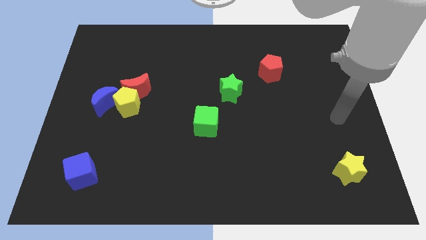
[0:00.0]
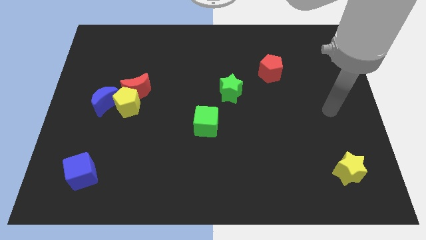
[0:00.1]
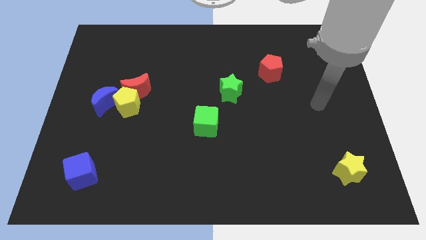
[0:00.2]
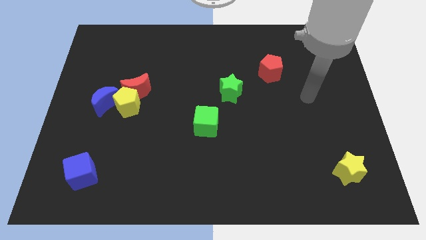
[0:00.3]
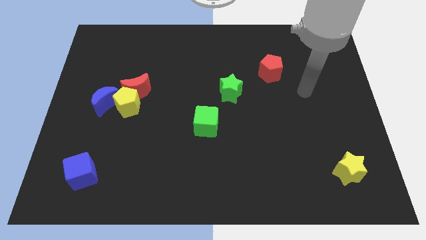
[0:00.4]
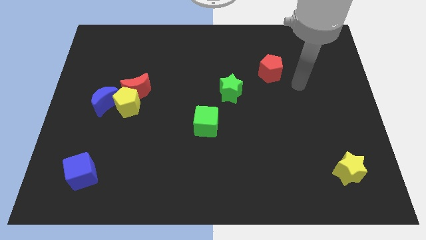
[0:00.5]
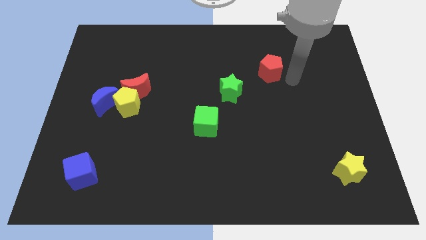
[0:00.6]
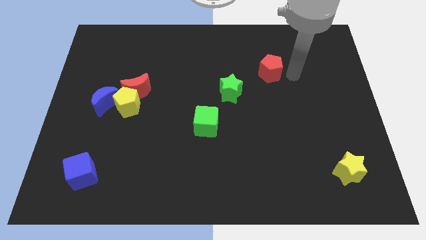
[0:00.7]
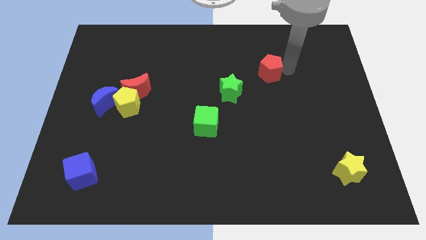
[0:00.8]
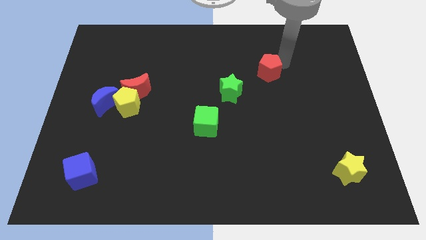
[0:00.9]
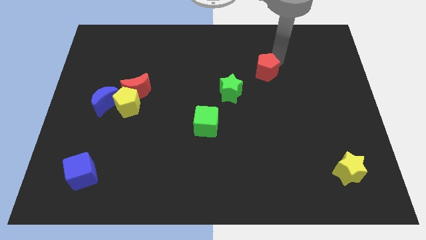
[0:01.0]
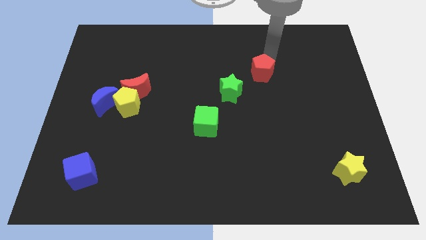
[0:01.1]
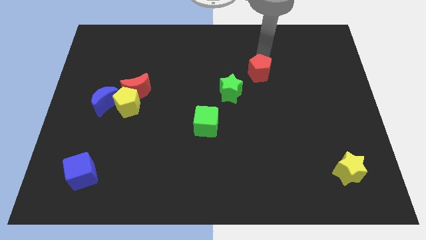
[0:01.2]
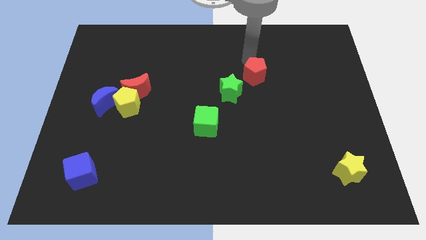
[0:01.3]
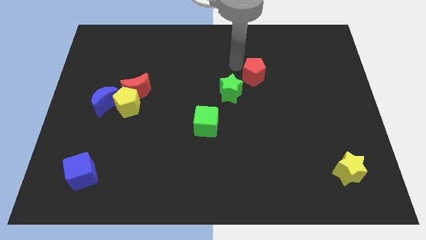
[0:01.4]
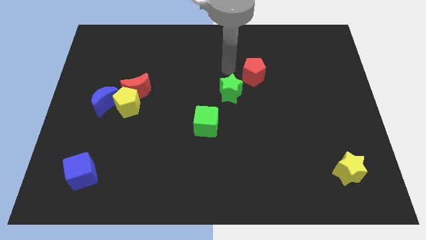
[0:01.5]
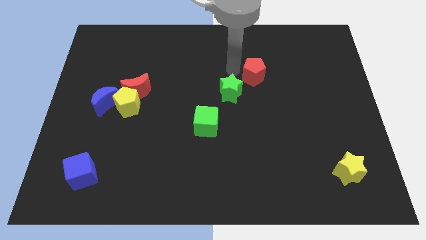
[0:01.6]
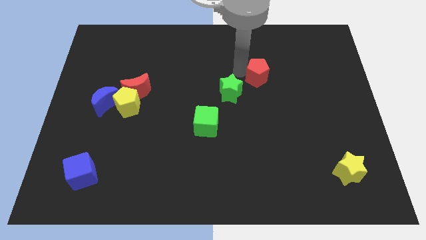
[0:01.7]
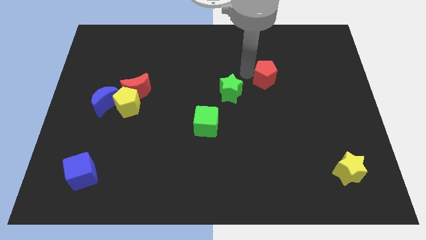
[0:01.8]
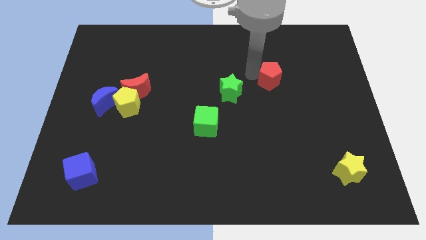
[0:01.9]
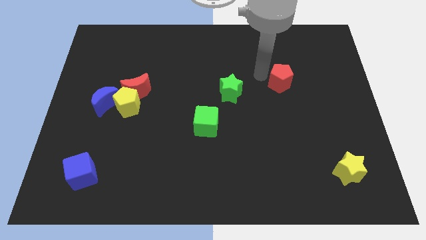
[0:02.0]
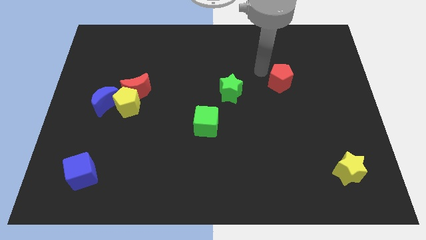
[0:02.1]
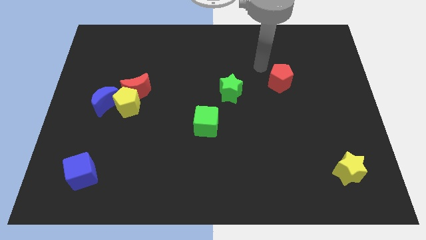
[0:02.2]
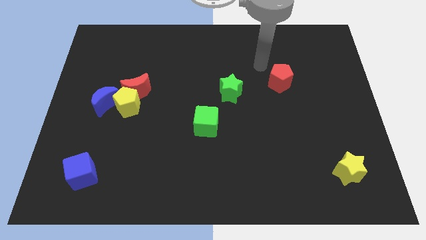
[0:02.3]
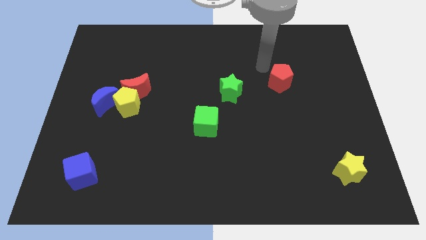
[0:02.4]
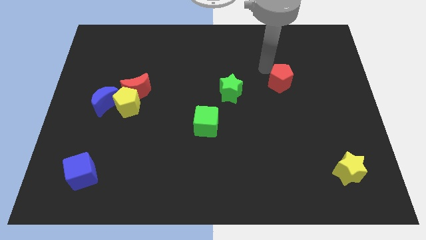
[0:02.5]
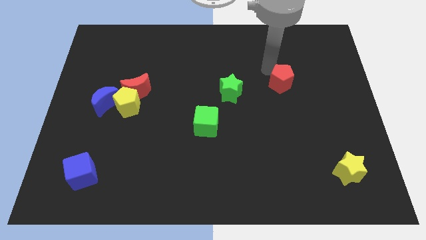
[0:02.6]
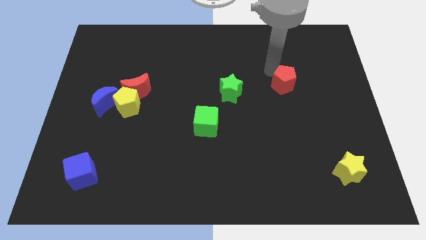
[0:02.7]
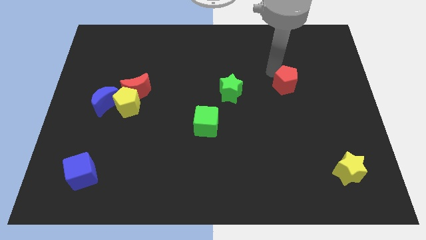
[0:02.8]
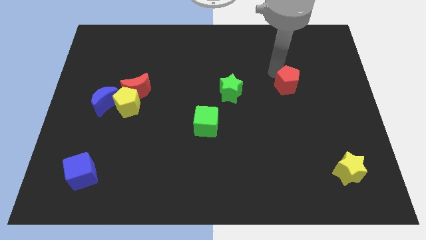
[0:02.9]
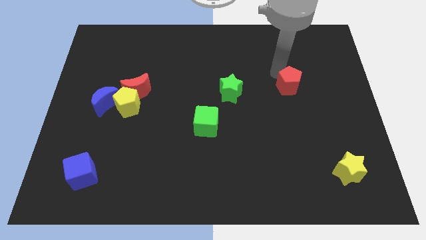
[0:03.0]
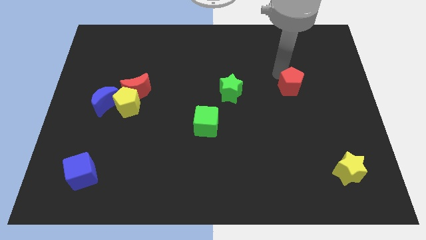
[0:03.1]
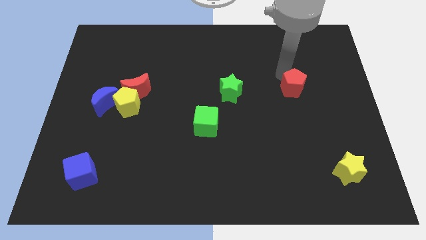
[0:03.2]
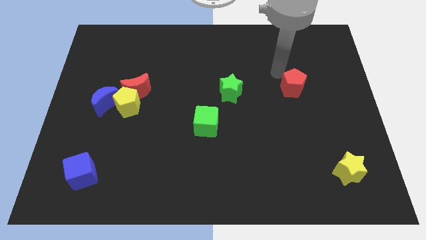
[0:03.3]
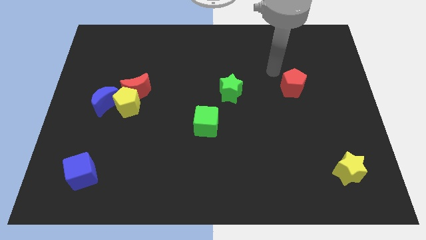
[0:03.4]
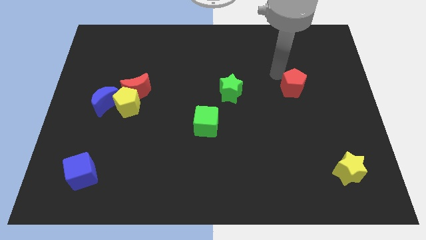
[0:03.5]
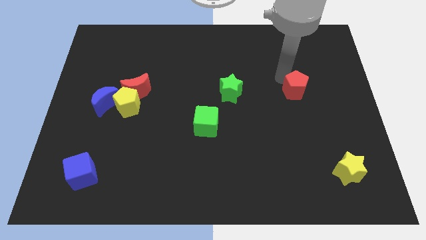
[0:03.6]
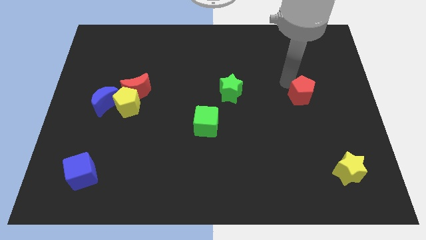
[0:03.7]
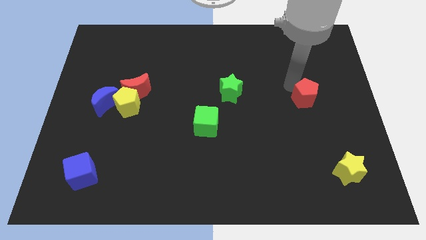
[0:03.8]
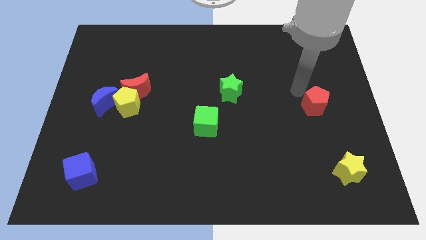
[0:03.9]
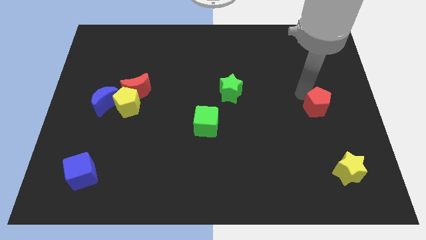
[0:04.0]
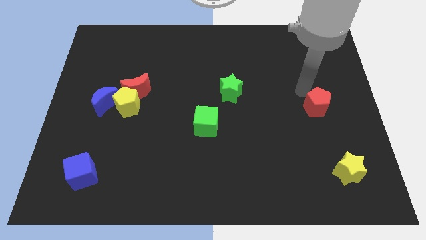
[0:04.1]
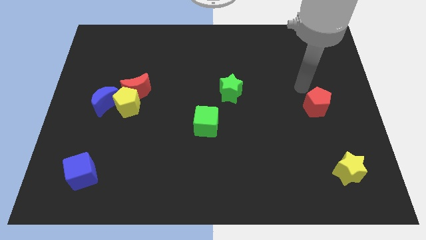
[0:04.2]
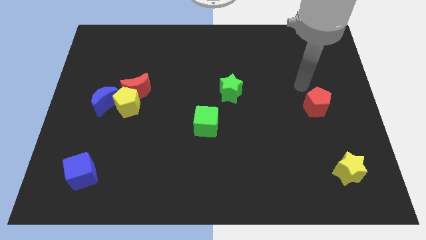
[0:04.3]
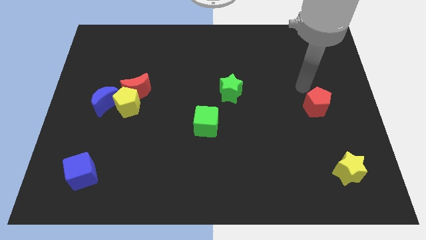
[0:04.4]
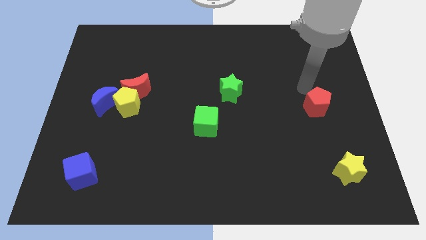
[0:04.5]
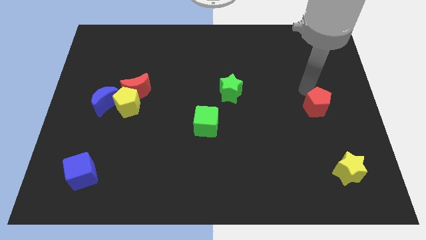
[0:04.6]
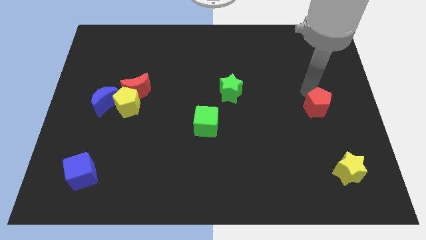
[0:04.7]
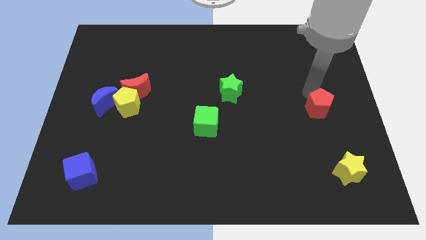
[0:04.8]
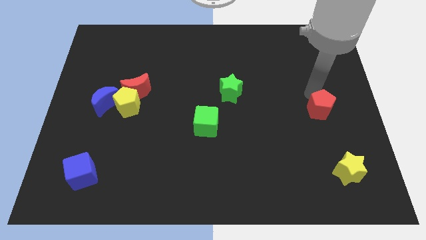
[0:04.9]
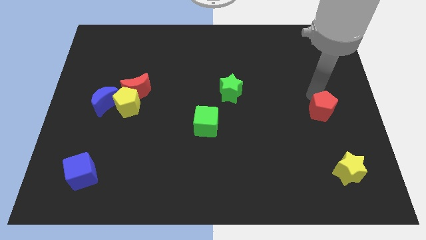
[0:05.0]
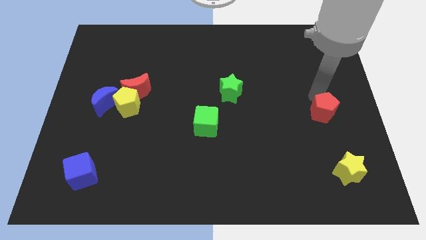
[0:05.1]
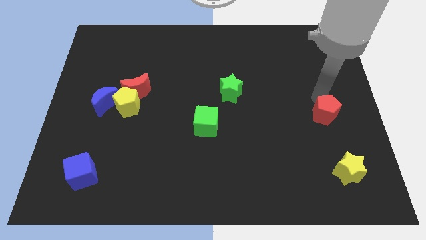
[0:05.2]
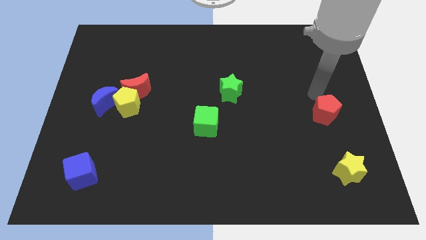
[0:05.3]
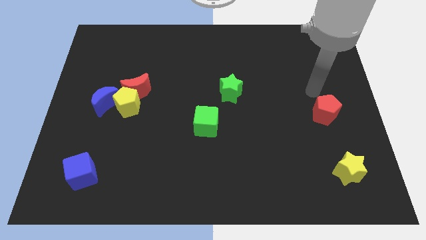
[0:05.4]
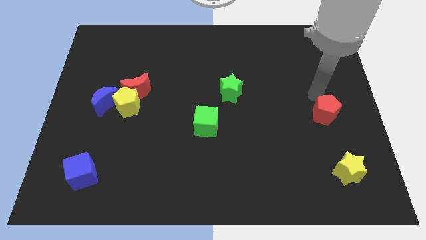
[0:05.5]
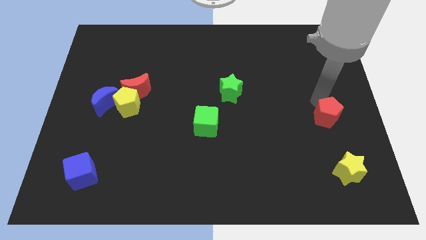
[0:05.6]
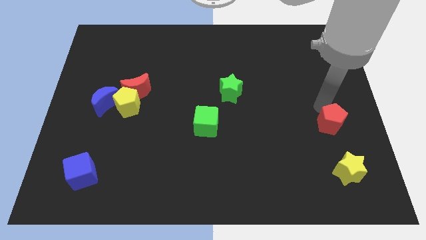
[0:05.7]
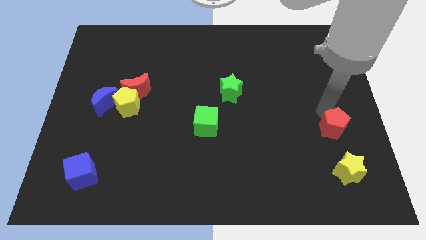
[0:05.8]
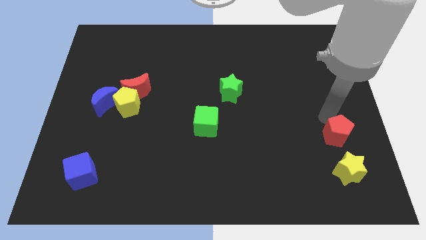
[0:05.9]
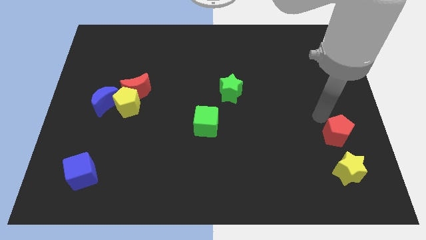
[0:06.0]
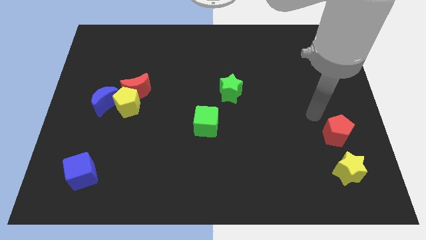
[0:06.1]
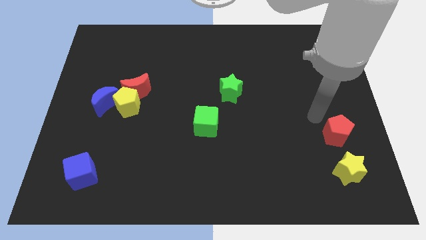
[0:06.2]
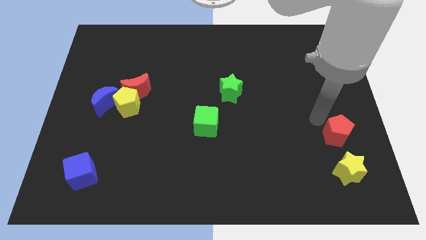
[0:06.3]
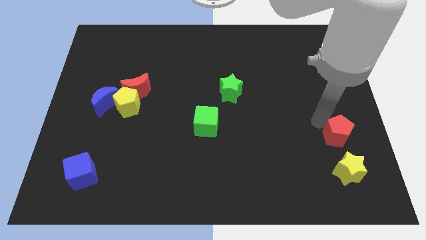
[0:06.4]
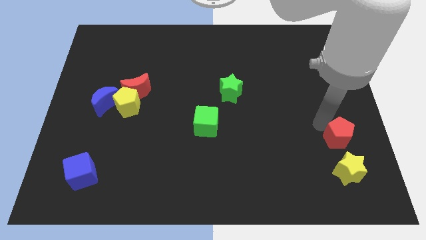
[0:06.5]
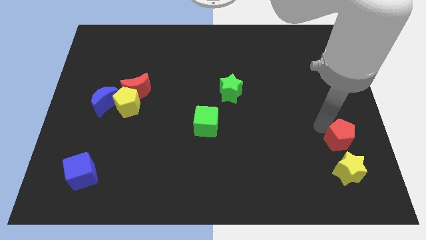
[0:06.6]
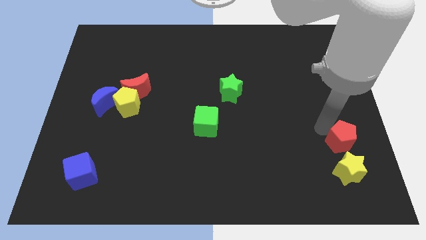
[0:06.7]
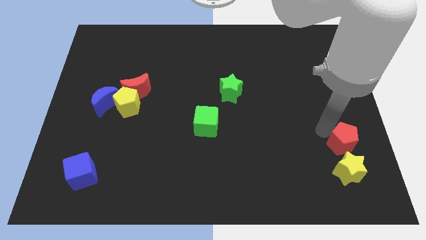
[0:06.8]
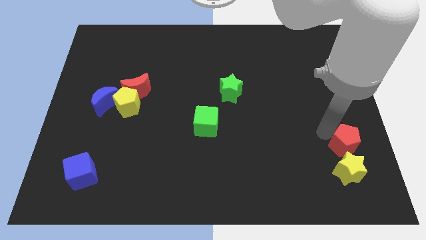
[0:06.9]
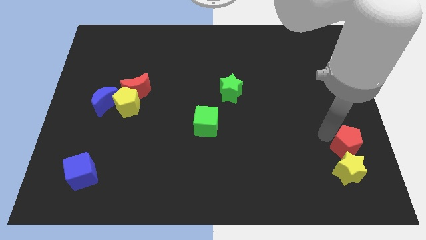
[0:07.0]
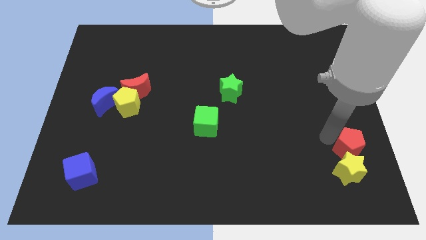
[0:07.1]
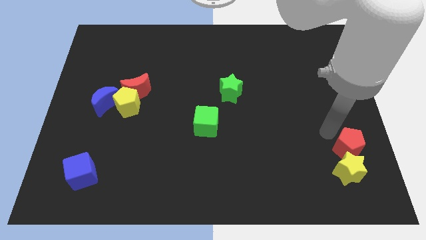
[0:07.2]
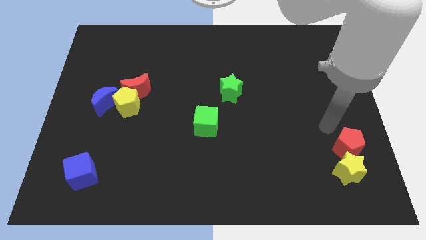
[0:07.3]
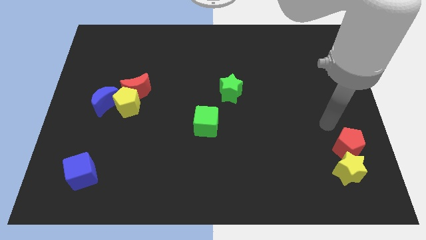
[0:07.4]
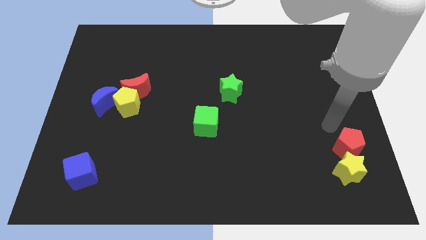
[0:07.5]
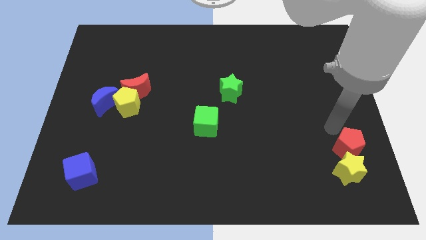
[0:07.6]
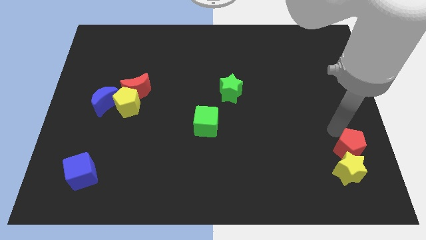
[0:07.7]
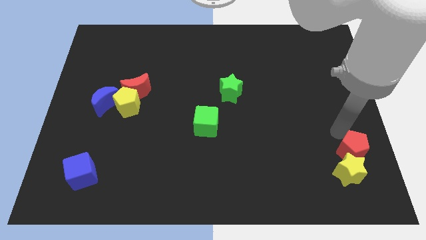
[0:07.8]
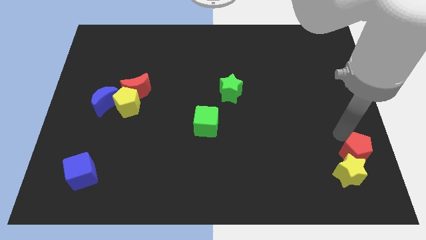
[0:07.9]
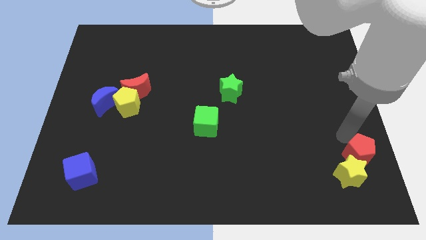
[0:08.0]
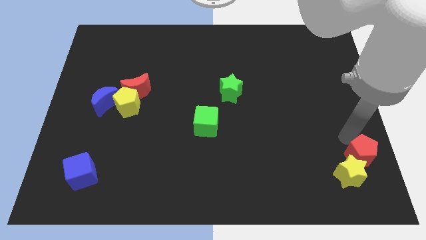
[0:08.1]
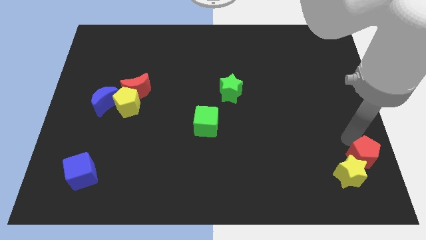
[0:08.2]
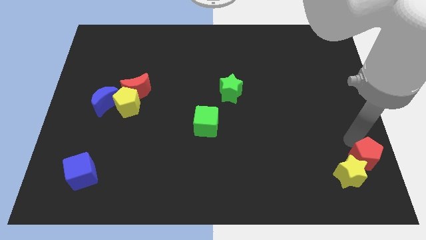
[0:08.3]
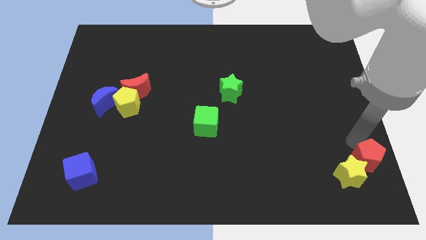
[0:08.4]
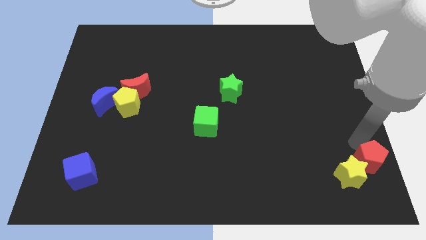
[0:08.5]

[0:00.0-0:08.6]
push the red pentagon to the bottom right of the board
